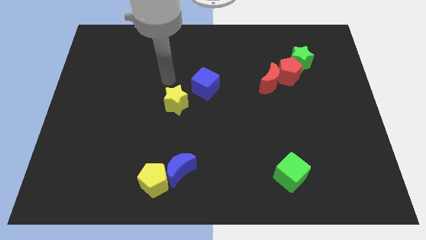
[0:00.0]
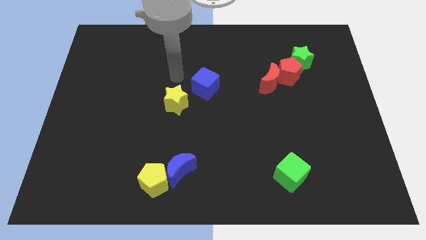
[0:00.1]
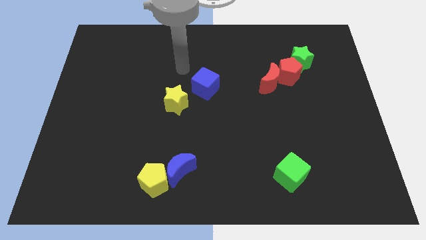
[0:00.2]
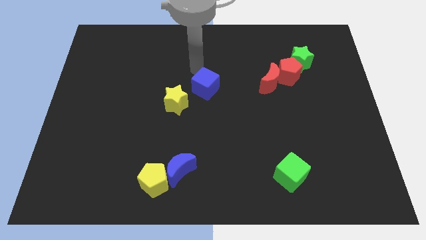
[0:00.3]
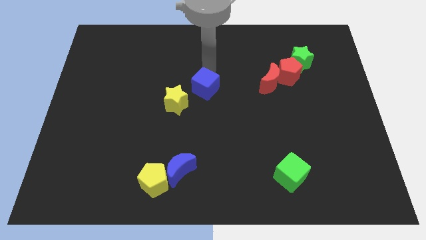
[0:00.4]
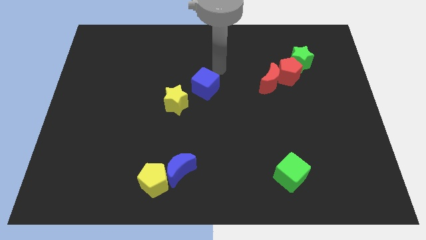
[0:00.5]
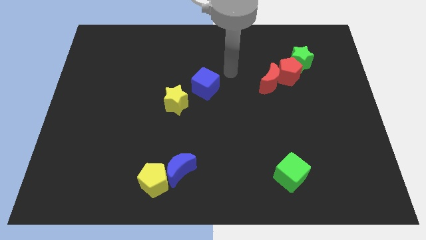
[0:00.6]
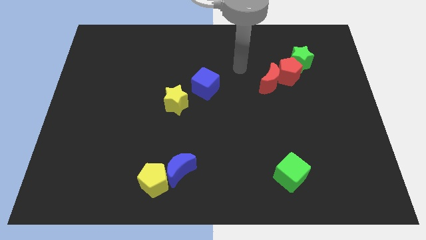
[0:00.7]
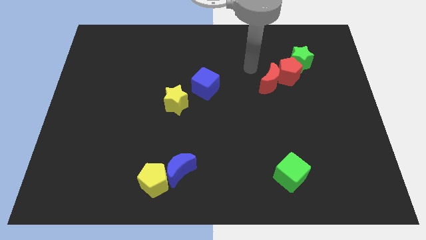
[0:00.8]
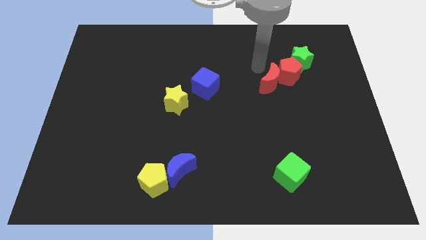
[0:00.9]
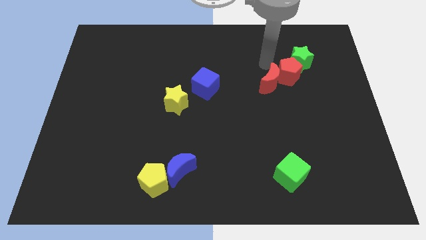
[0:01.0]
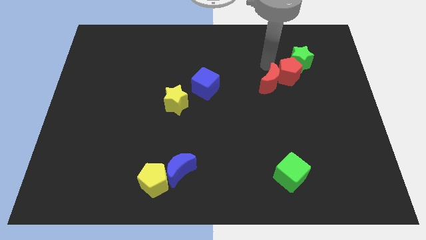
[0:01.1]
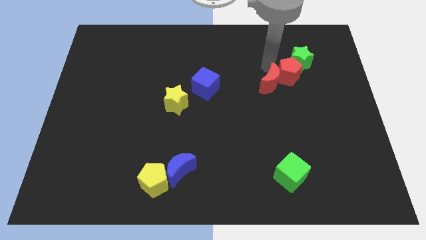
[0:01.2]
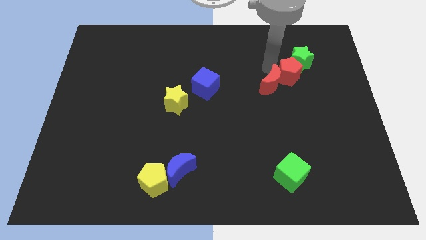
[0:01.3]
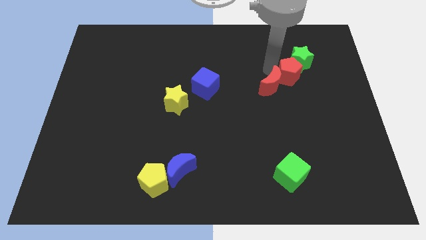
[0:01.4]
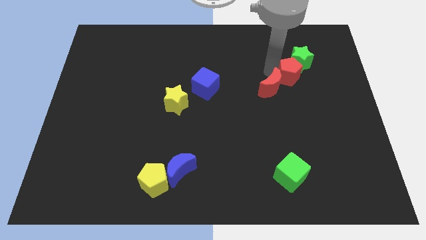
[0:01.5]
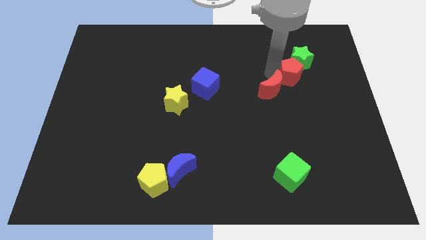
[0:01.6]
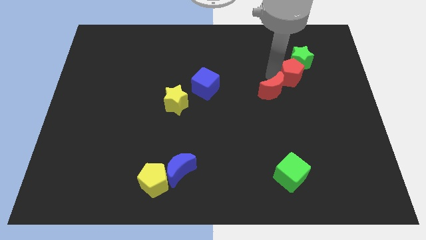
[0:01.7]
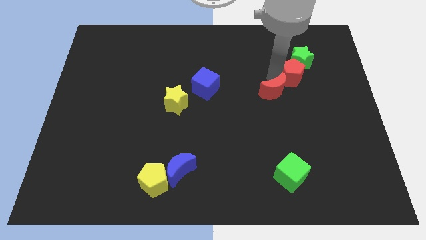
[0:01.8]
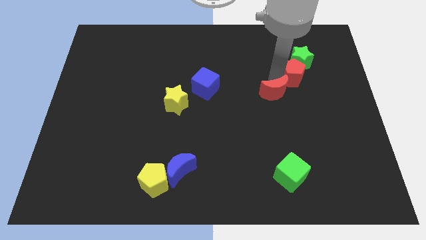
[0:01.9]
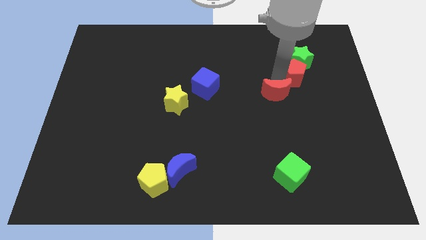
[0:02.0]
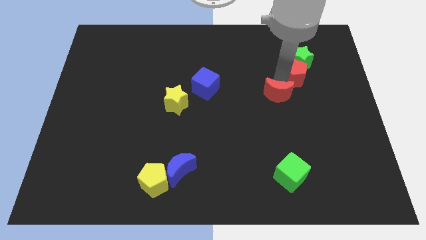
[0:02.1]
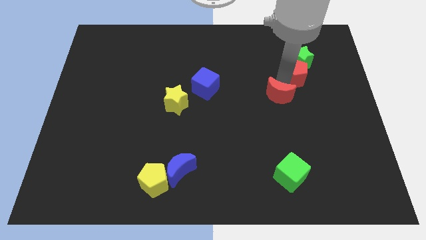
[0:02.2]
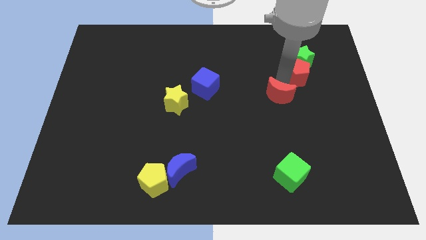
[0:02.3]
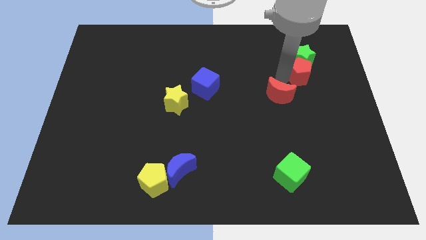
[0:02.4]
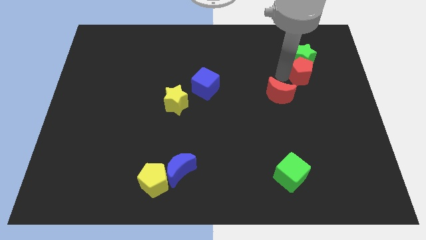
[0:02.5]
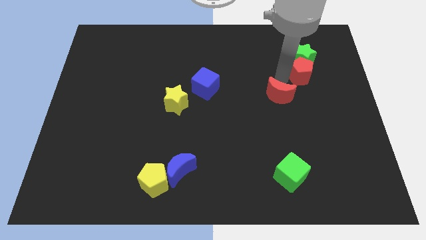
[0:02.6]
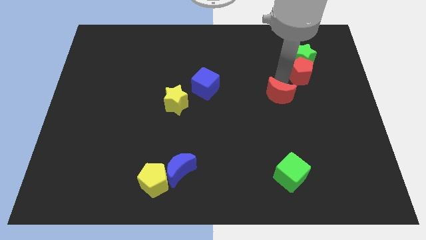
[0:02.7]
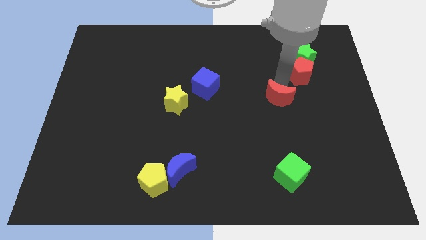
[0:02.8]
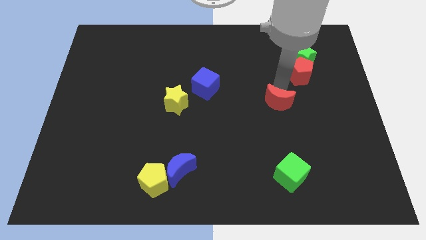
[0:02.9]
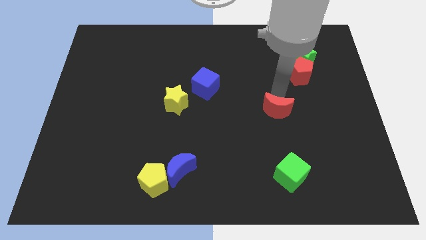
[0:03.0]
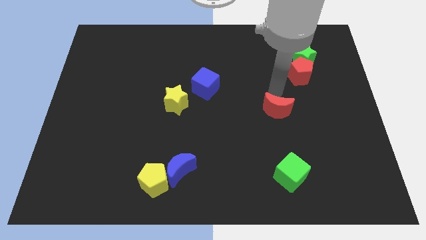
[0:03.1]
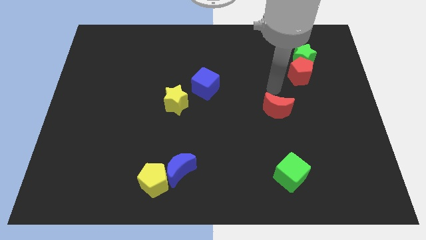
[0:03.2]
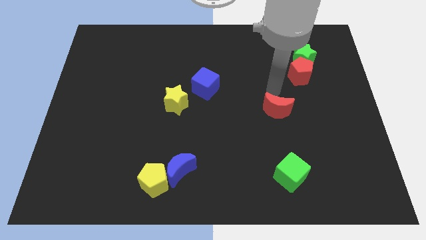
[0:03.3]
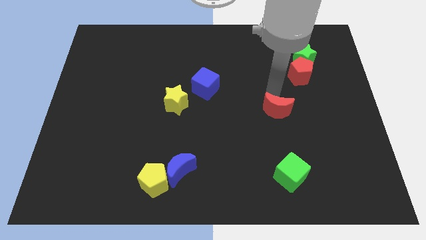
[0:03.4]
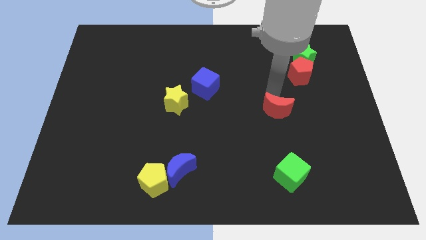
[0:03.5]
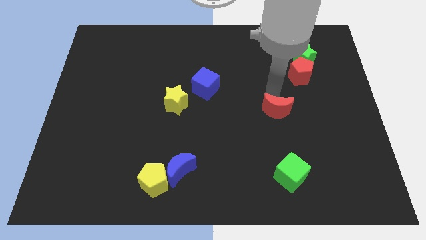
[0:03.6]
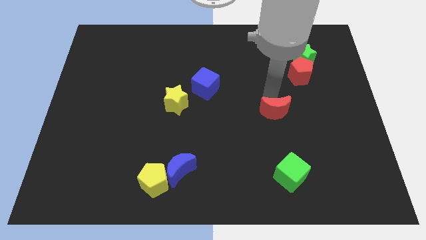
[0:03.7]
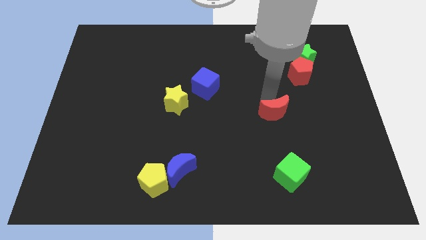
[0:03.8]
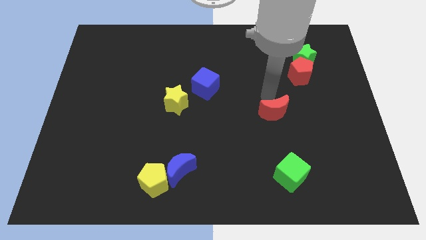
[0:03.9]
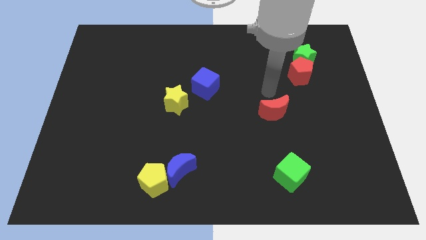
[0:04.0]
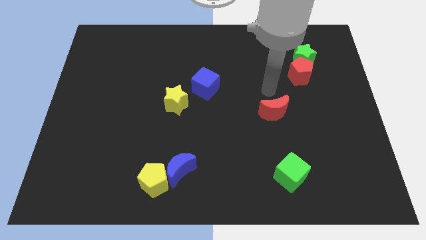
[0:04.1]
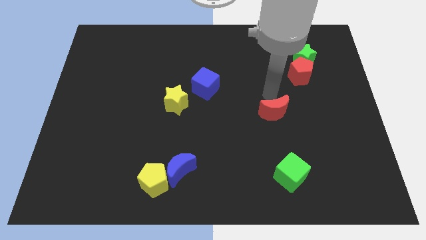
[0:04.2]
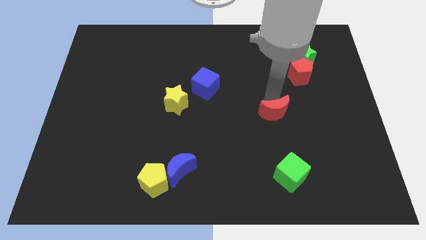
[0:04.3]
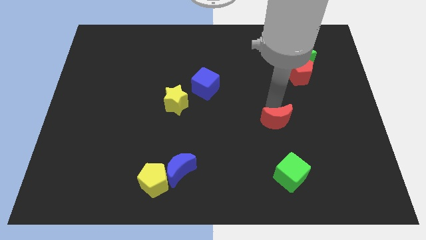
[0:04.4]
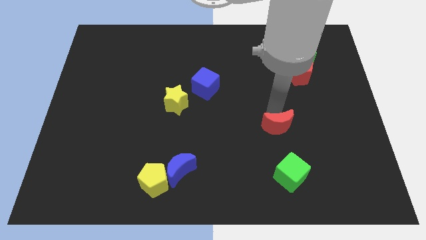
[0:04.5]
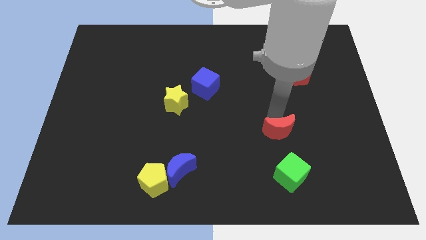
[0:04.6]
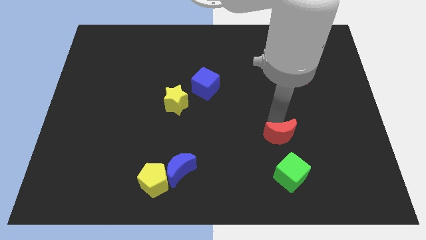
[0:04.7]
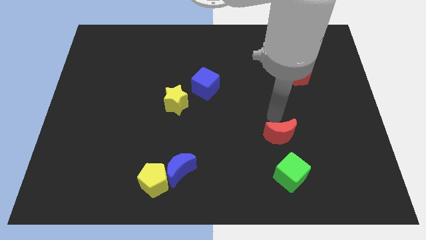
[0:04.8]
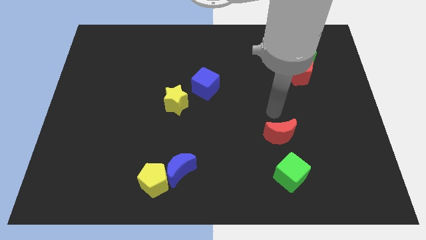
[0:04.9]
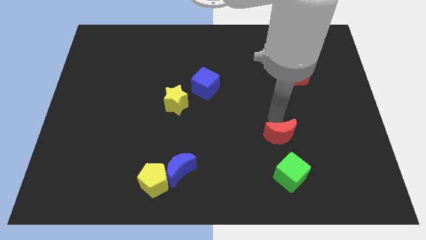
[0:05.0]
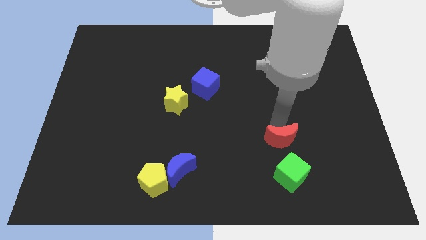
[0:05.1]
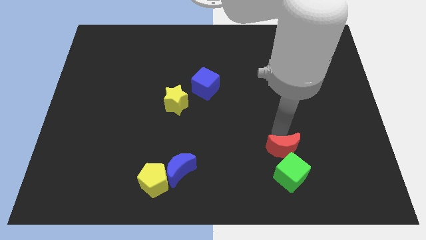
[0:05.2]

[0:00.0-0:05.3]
slide the red moon to the green cube

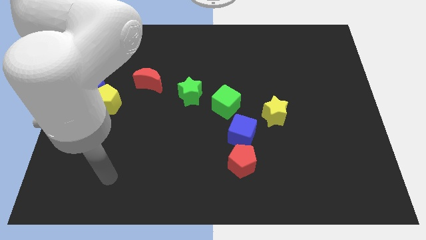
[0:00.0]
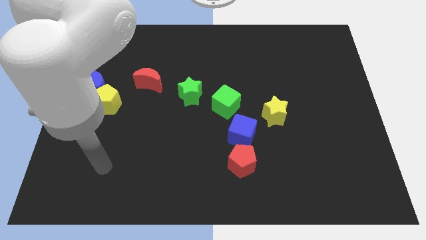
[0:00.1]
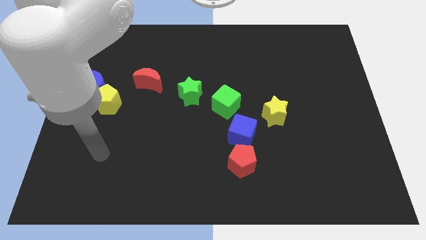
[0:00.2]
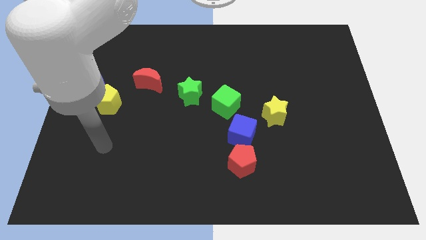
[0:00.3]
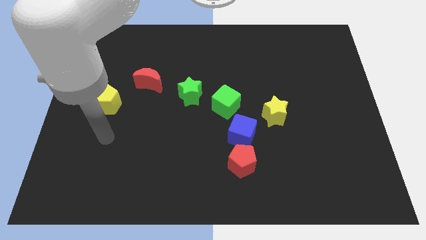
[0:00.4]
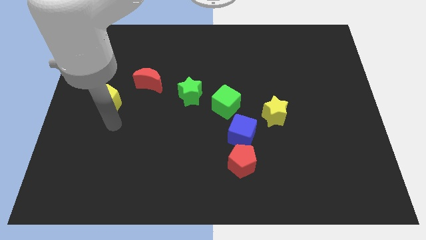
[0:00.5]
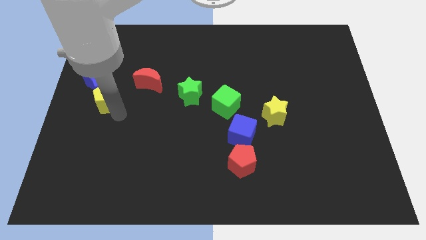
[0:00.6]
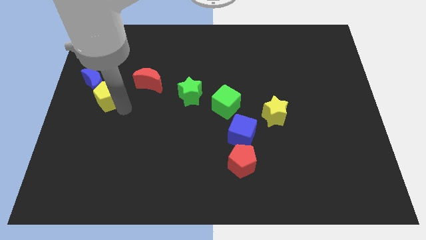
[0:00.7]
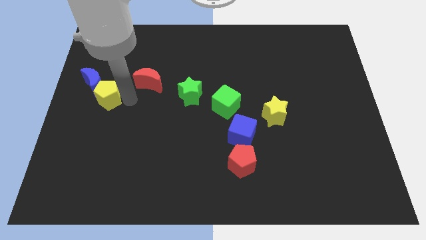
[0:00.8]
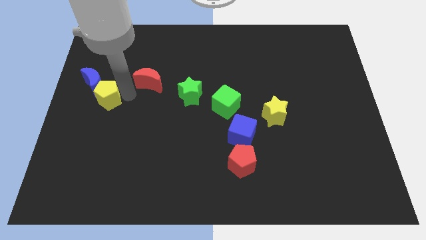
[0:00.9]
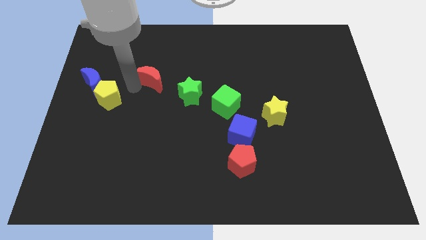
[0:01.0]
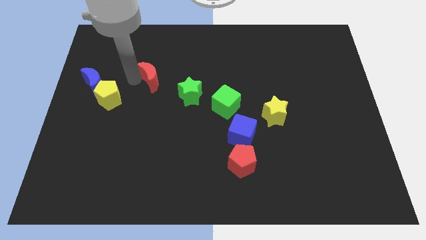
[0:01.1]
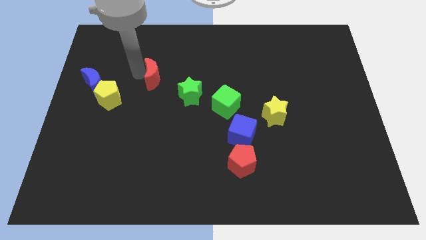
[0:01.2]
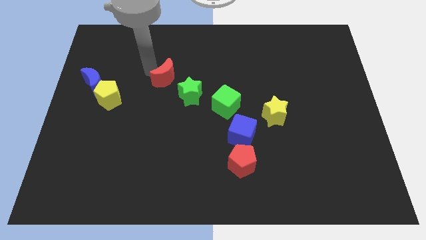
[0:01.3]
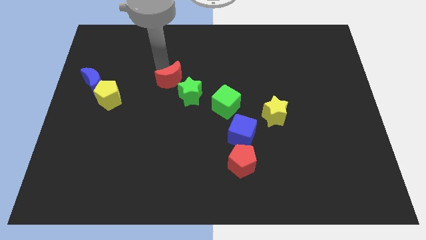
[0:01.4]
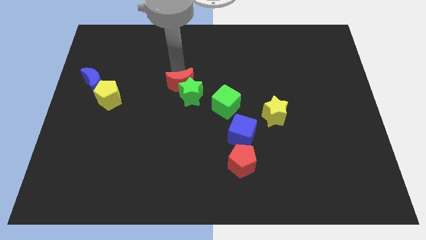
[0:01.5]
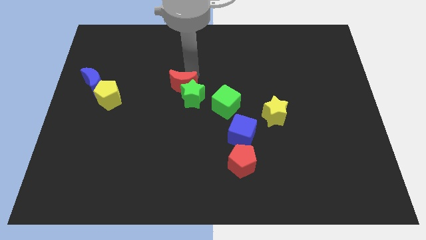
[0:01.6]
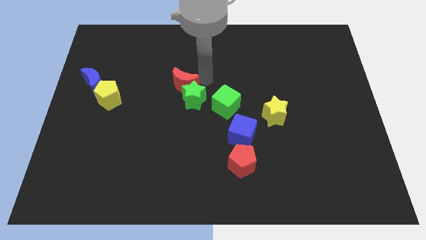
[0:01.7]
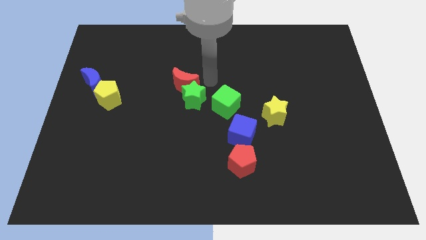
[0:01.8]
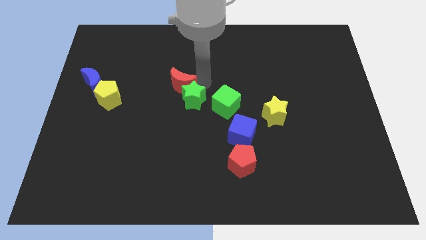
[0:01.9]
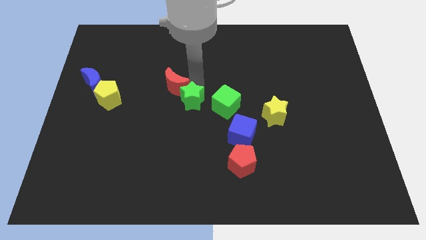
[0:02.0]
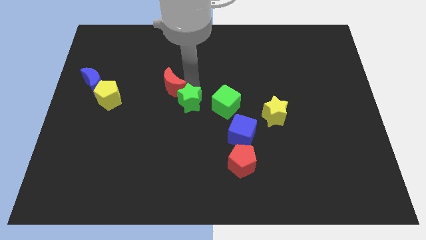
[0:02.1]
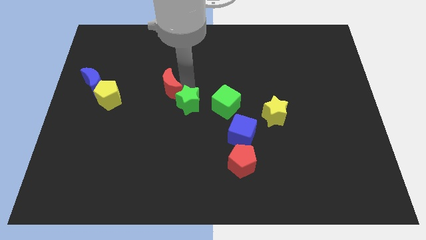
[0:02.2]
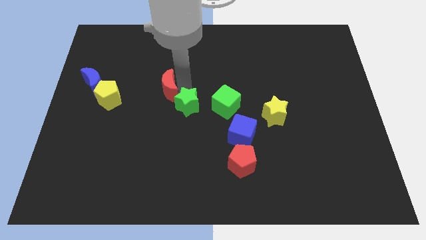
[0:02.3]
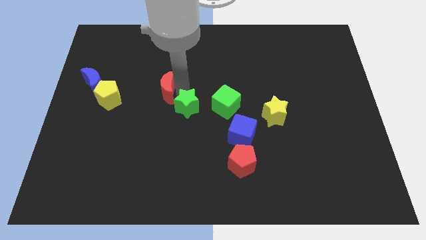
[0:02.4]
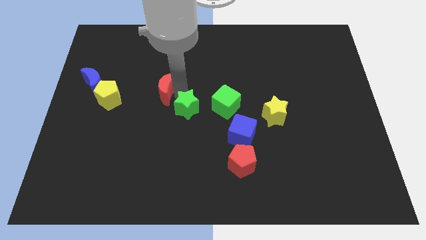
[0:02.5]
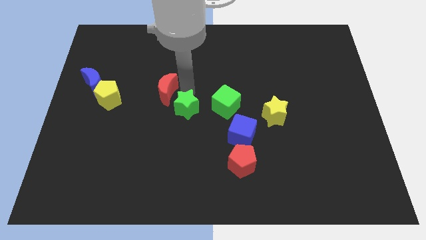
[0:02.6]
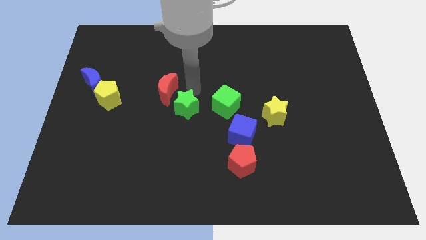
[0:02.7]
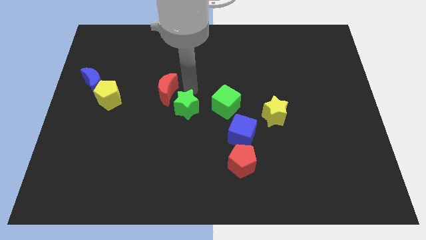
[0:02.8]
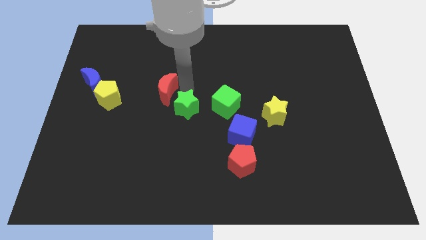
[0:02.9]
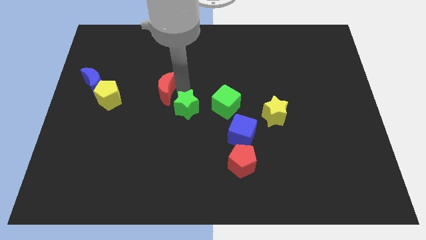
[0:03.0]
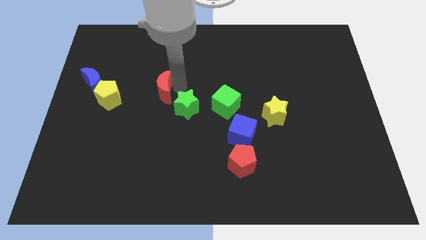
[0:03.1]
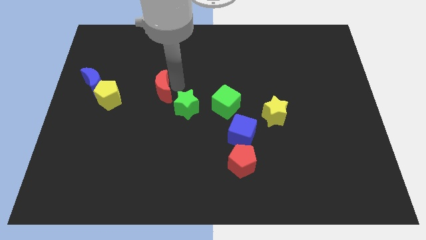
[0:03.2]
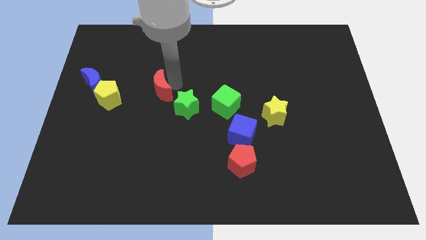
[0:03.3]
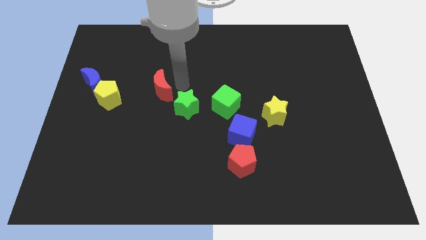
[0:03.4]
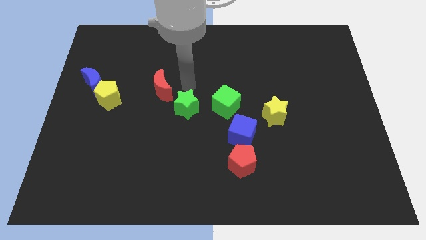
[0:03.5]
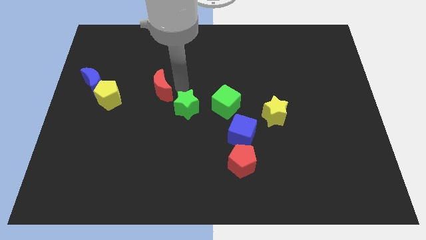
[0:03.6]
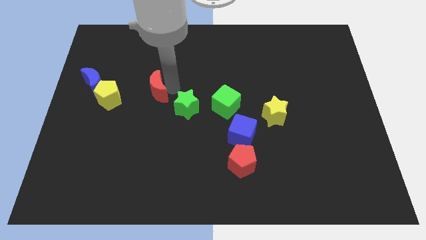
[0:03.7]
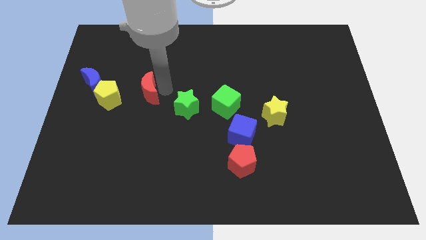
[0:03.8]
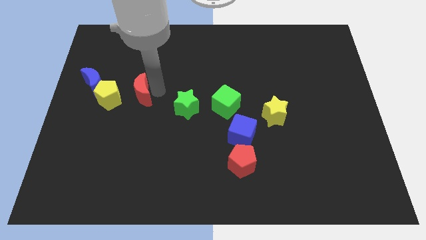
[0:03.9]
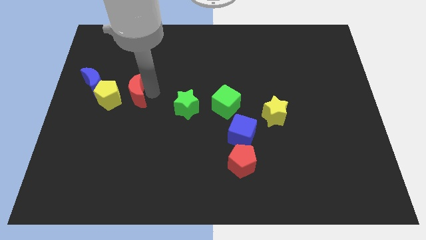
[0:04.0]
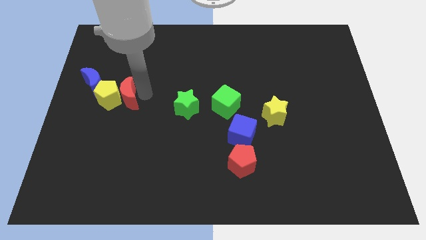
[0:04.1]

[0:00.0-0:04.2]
push the red moon next to the yellow pentagon
